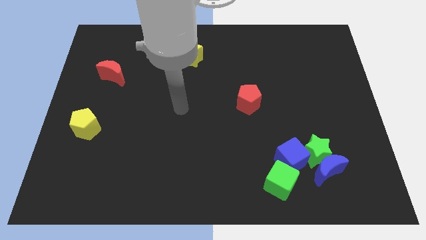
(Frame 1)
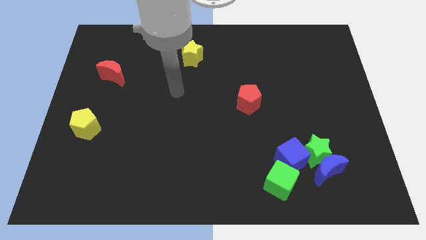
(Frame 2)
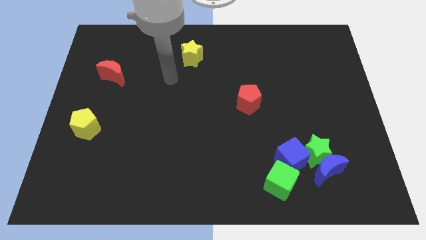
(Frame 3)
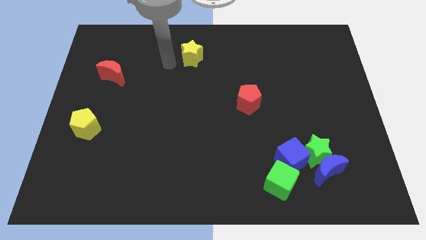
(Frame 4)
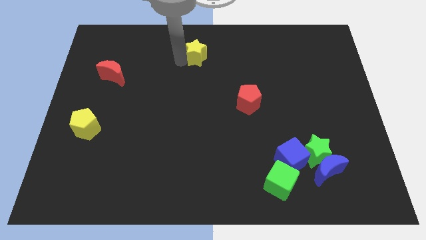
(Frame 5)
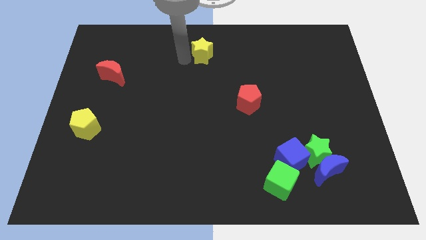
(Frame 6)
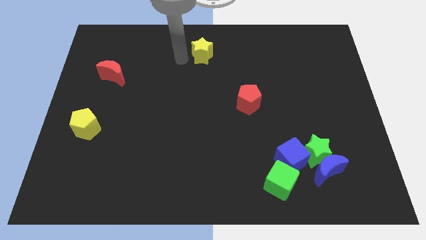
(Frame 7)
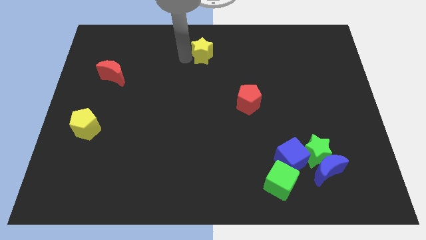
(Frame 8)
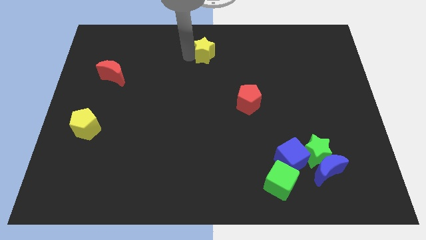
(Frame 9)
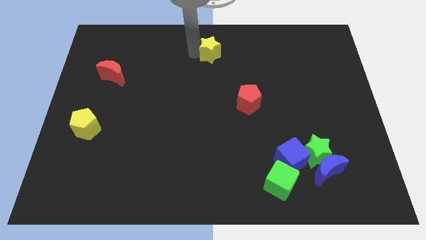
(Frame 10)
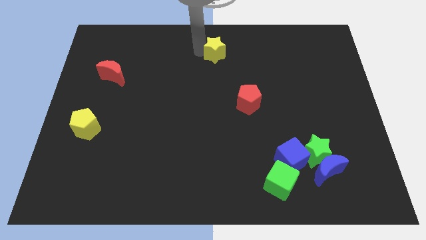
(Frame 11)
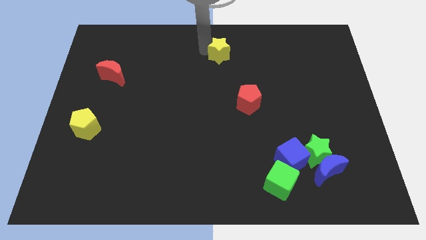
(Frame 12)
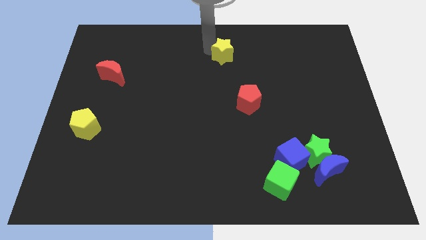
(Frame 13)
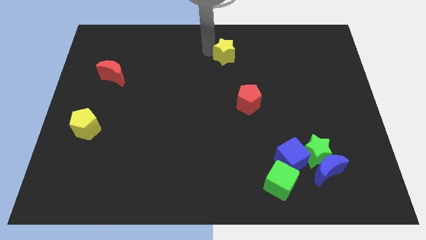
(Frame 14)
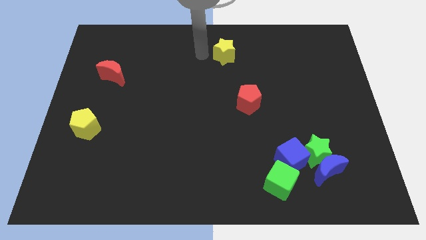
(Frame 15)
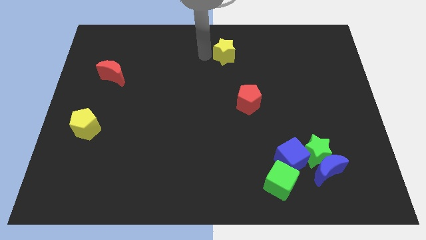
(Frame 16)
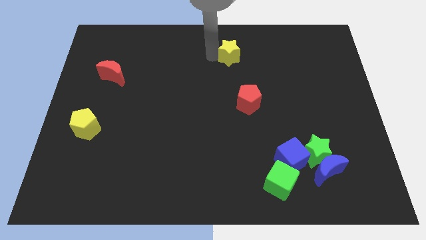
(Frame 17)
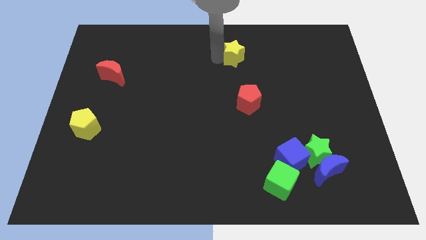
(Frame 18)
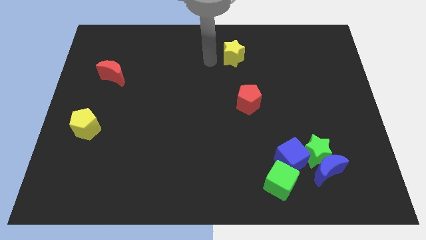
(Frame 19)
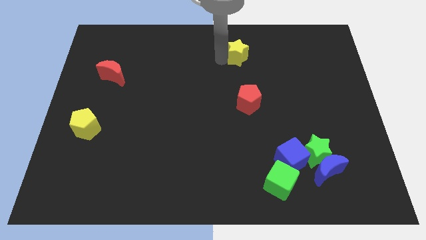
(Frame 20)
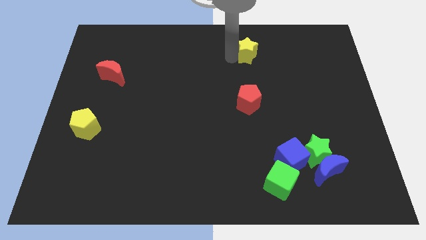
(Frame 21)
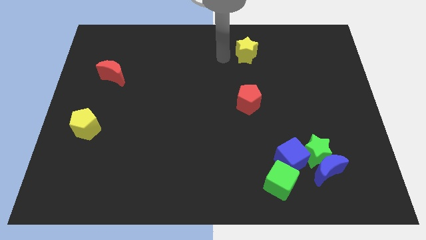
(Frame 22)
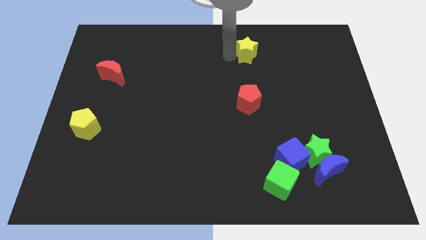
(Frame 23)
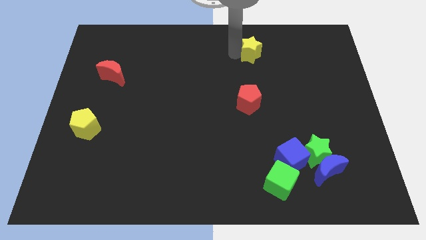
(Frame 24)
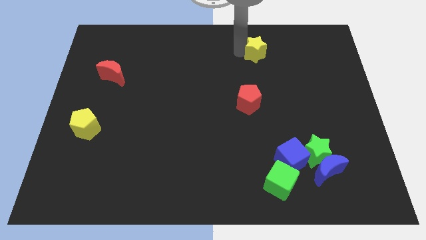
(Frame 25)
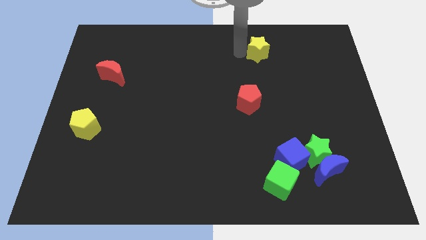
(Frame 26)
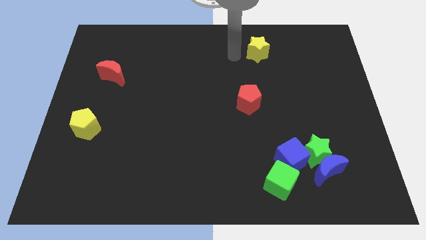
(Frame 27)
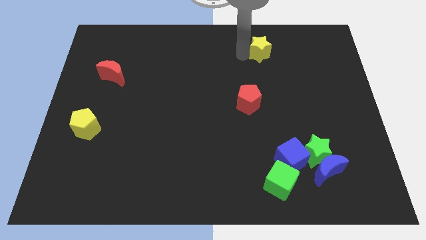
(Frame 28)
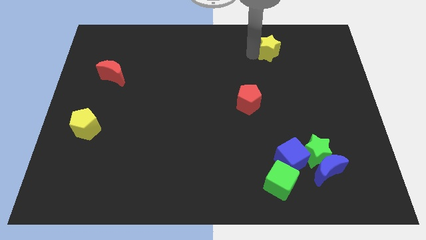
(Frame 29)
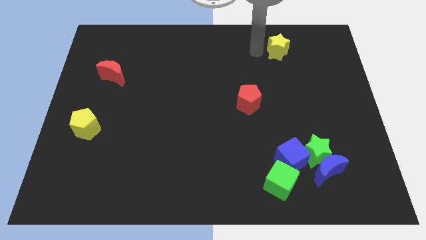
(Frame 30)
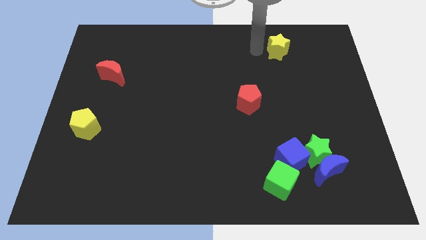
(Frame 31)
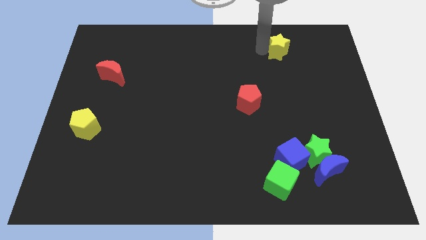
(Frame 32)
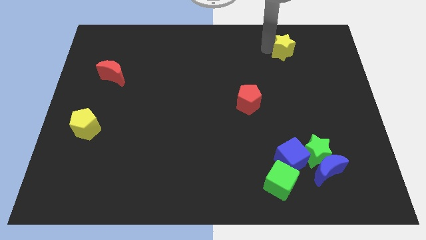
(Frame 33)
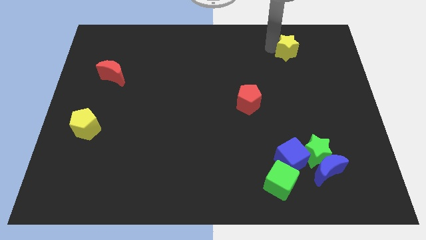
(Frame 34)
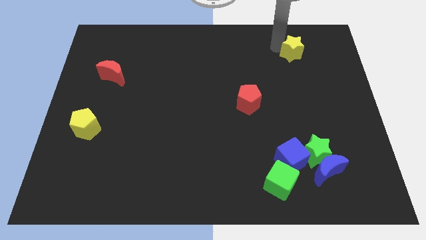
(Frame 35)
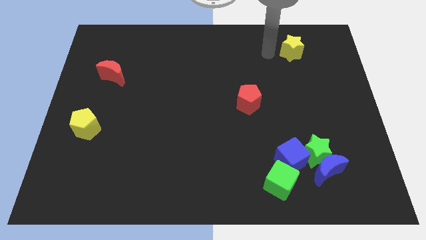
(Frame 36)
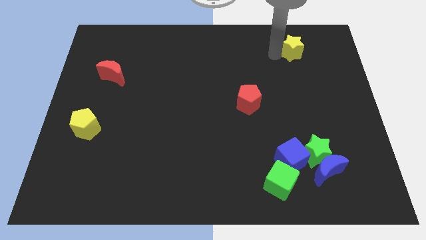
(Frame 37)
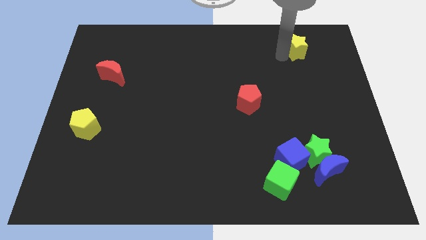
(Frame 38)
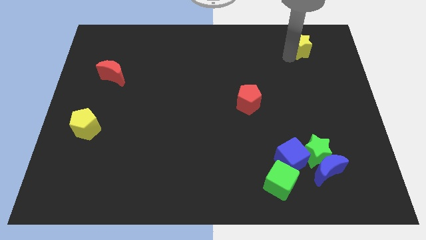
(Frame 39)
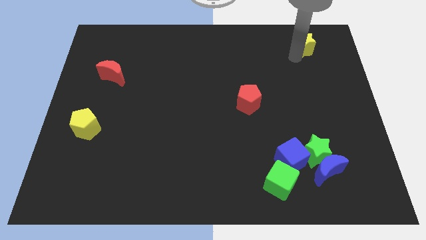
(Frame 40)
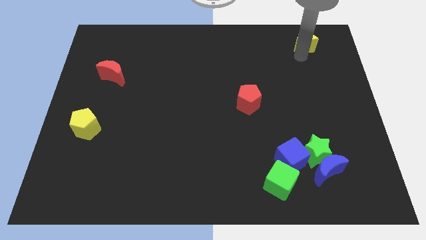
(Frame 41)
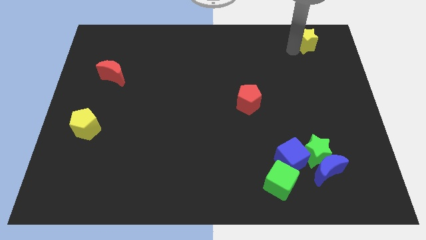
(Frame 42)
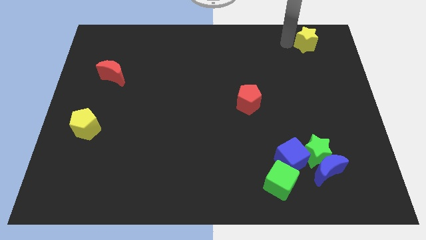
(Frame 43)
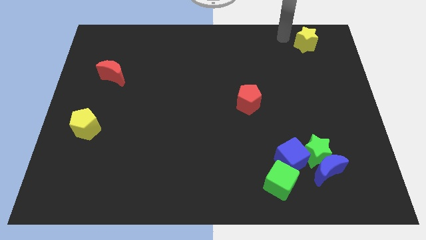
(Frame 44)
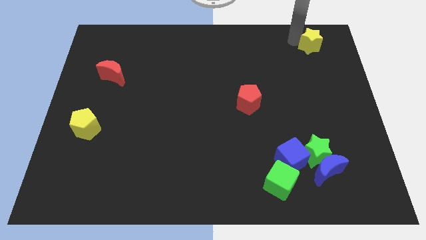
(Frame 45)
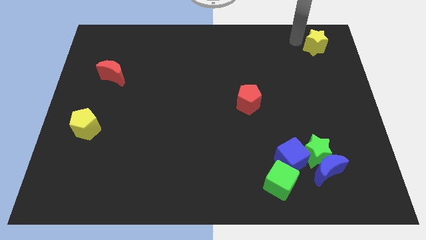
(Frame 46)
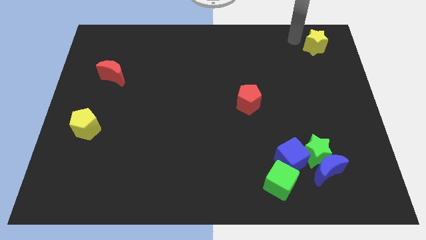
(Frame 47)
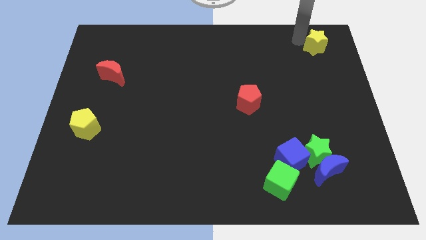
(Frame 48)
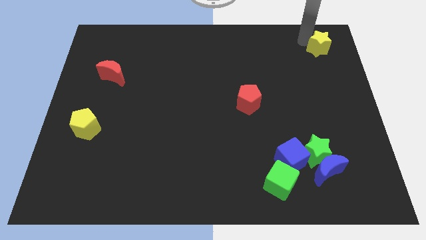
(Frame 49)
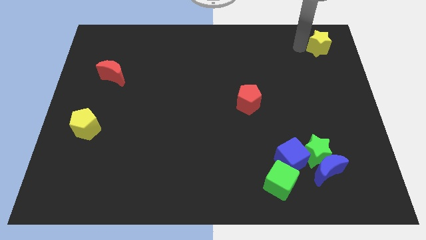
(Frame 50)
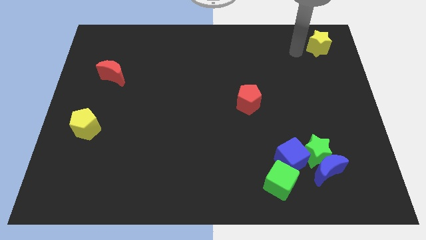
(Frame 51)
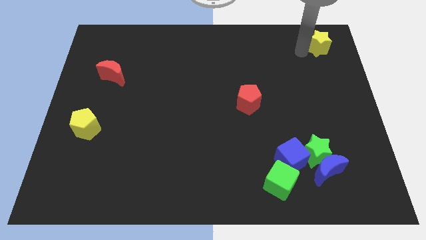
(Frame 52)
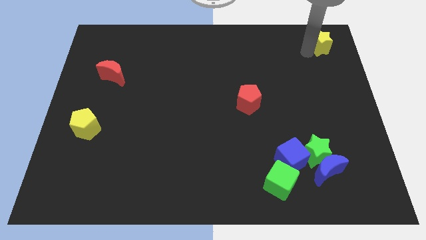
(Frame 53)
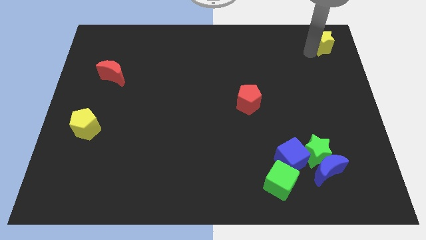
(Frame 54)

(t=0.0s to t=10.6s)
slide the yellow star to the top right

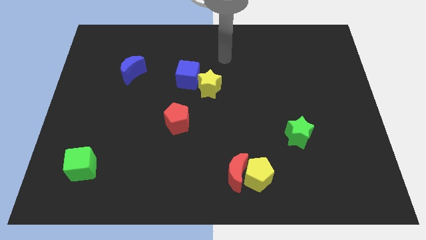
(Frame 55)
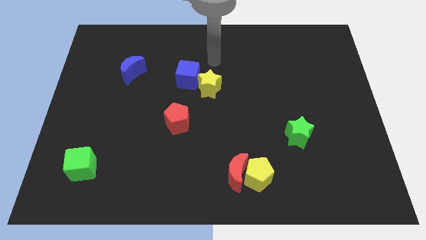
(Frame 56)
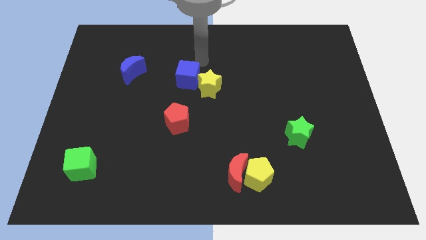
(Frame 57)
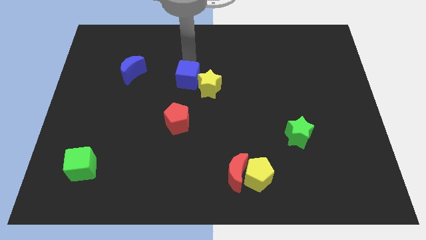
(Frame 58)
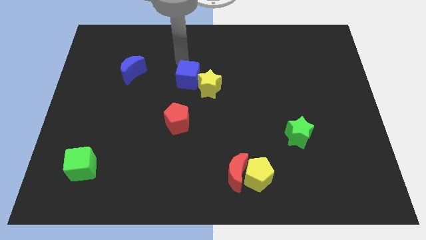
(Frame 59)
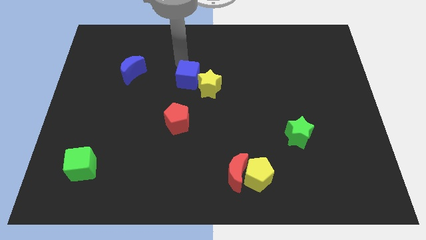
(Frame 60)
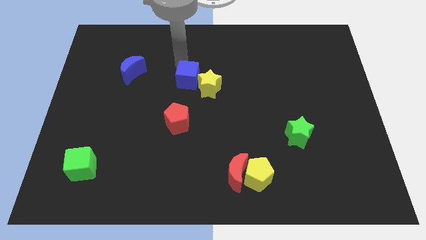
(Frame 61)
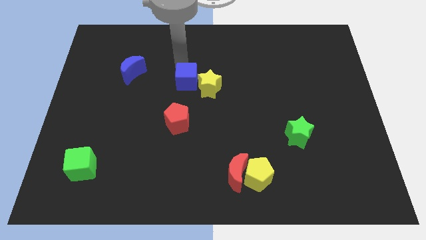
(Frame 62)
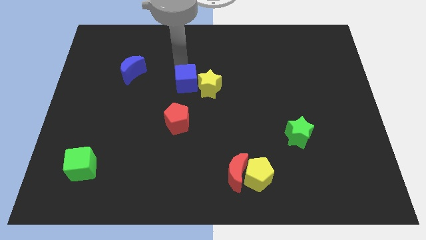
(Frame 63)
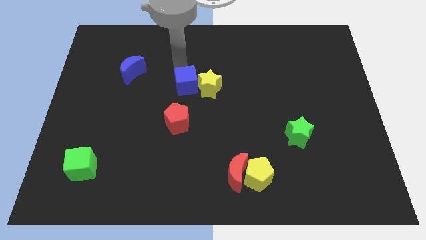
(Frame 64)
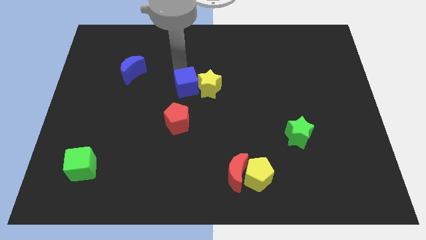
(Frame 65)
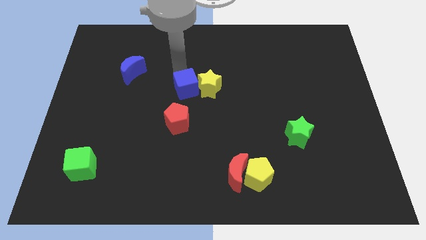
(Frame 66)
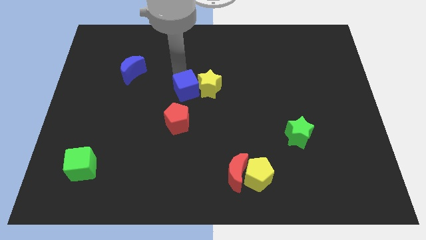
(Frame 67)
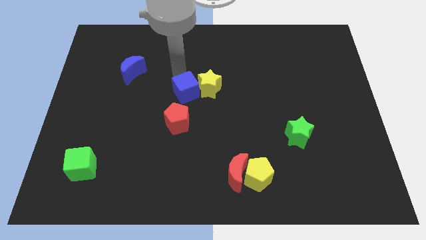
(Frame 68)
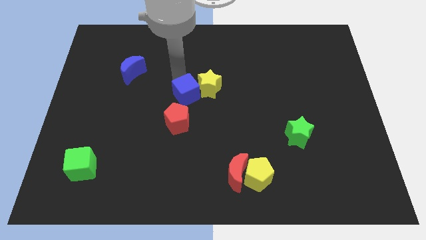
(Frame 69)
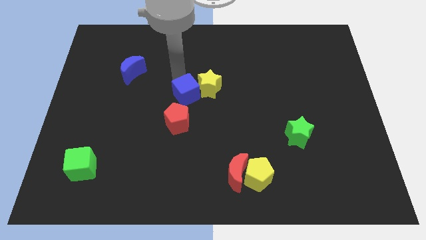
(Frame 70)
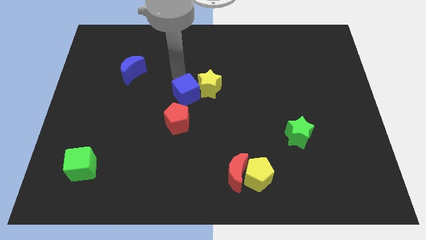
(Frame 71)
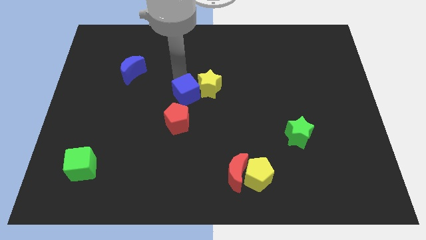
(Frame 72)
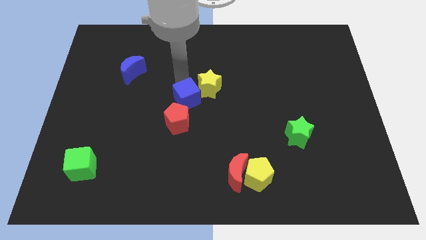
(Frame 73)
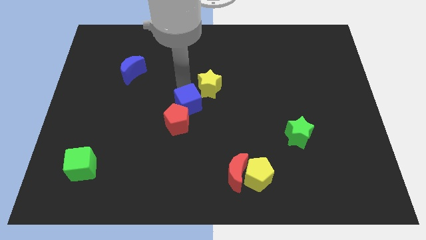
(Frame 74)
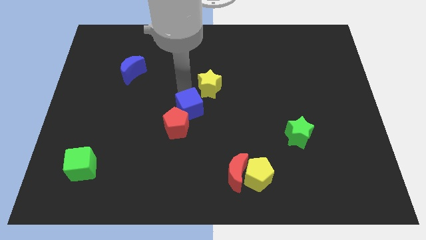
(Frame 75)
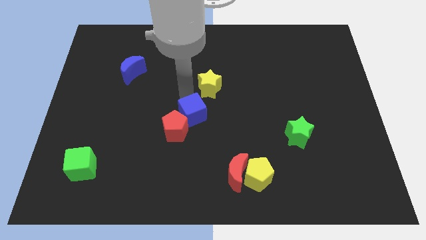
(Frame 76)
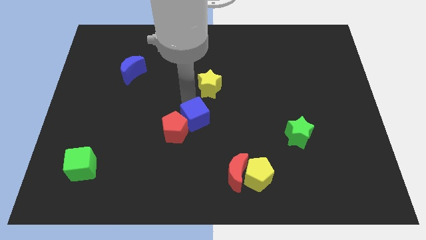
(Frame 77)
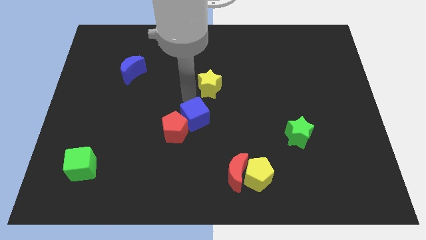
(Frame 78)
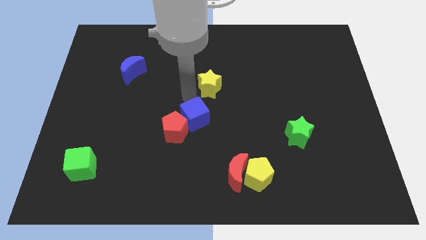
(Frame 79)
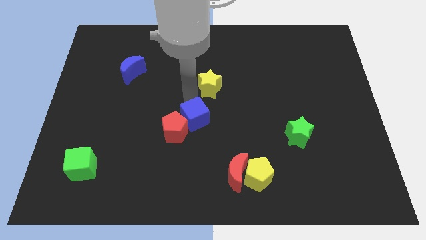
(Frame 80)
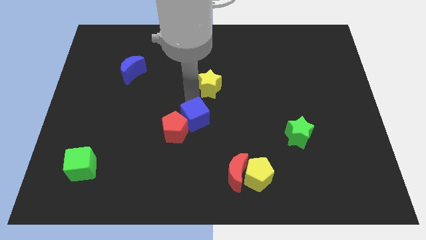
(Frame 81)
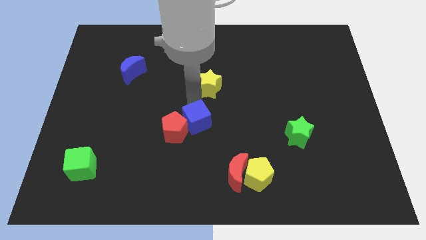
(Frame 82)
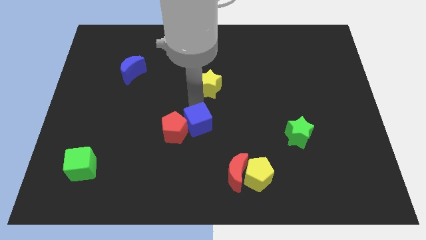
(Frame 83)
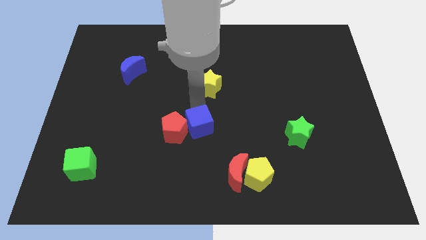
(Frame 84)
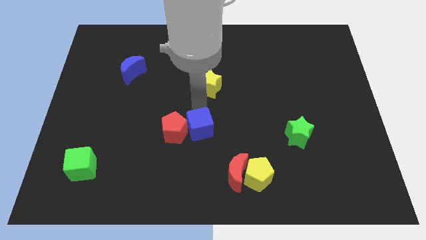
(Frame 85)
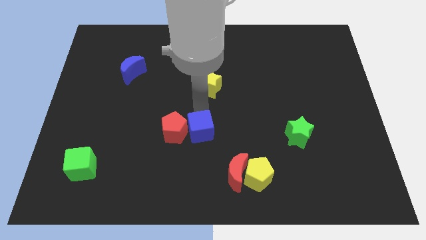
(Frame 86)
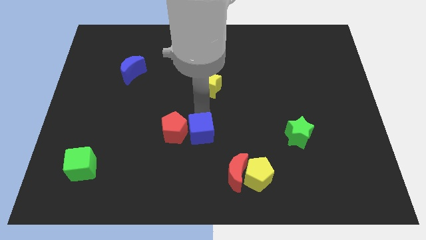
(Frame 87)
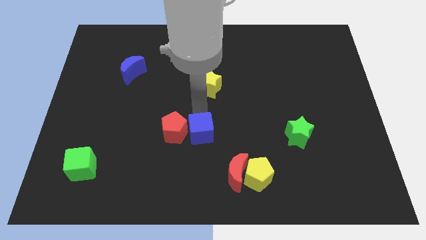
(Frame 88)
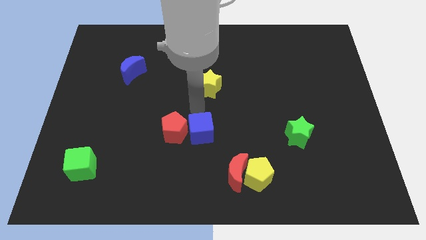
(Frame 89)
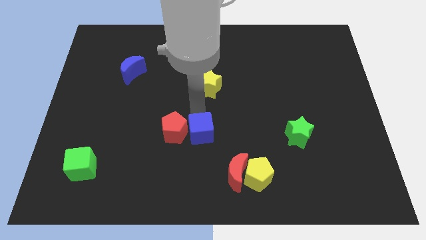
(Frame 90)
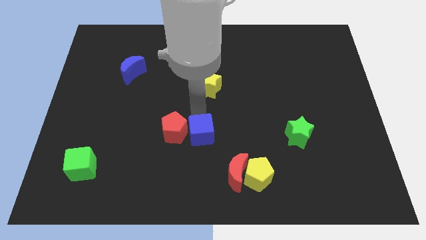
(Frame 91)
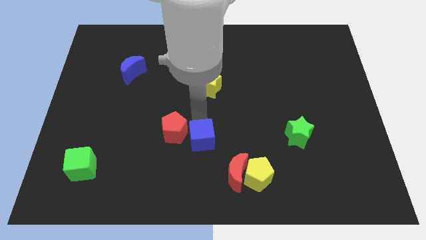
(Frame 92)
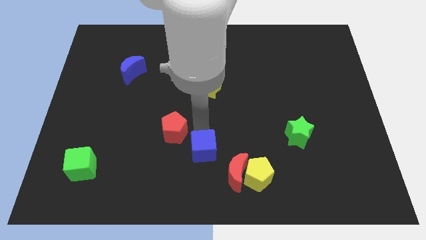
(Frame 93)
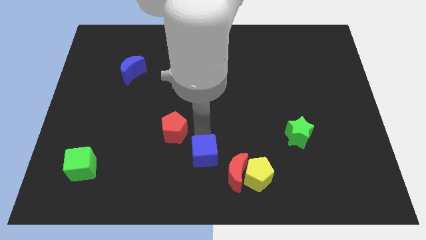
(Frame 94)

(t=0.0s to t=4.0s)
push the blue cube to the bottom side
